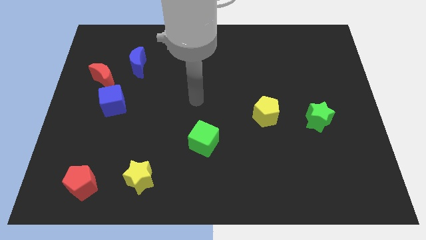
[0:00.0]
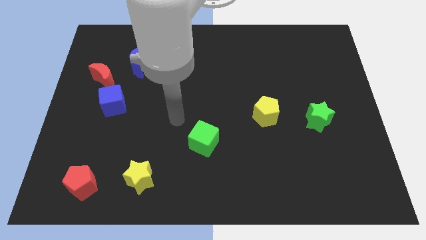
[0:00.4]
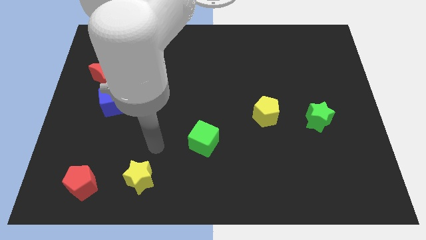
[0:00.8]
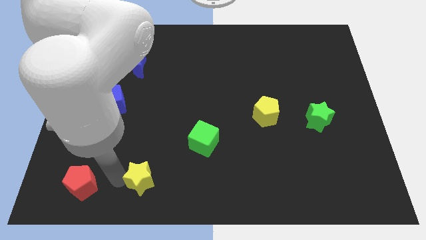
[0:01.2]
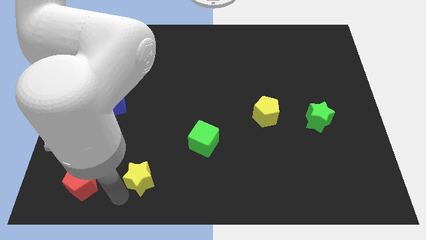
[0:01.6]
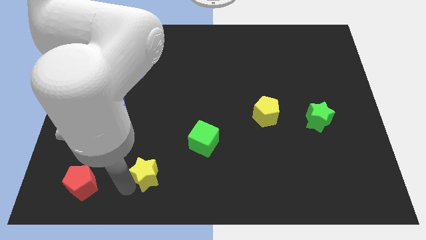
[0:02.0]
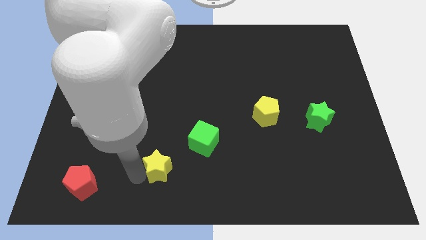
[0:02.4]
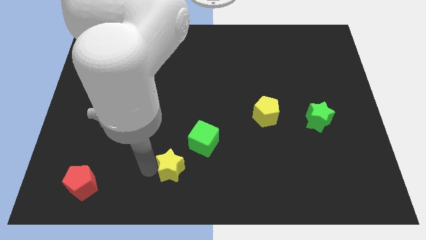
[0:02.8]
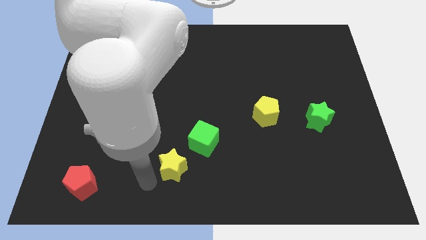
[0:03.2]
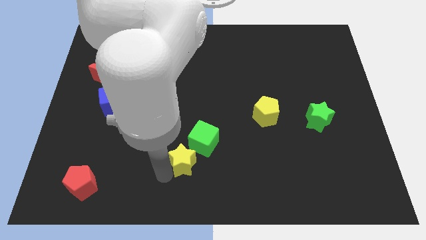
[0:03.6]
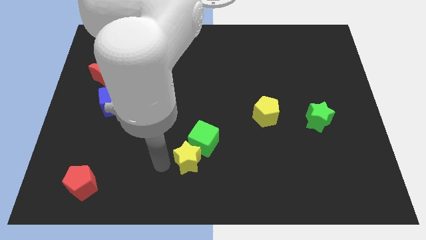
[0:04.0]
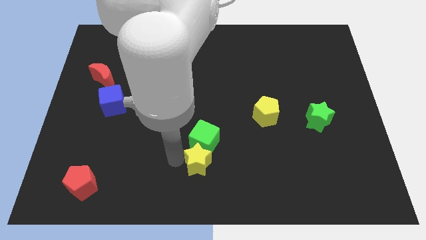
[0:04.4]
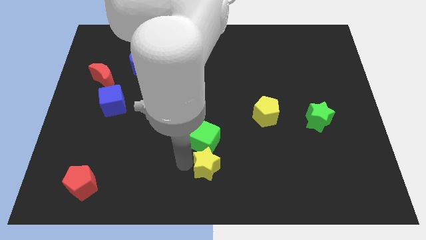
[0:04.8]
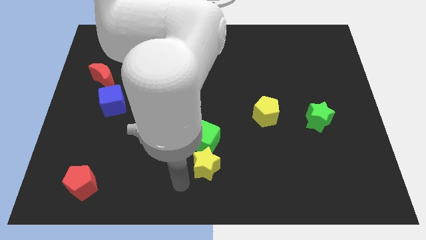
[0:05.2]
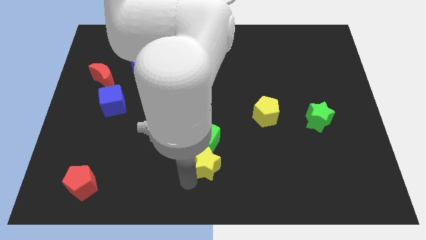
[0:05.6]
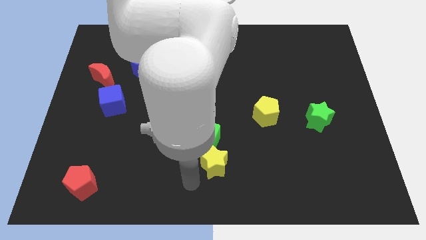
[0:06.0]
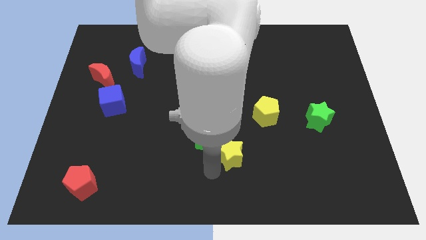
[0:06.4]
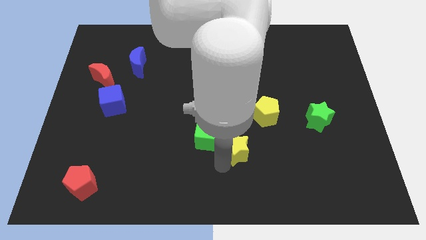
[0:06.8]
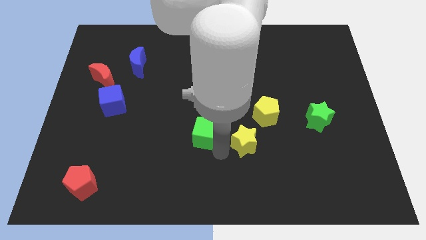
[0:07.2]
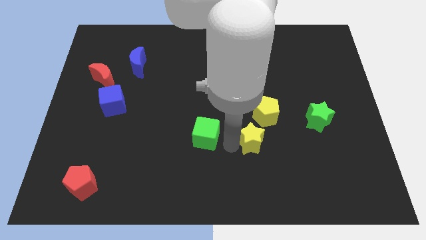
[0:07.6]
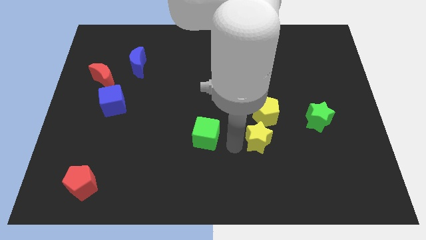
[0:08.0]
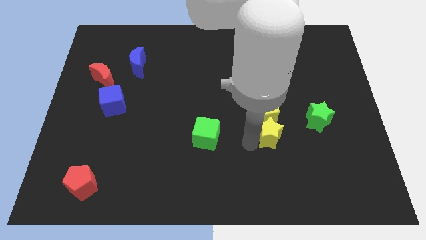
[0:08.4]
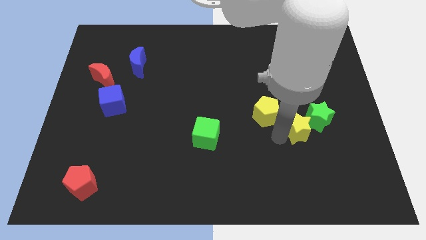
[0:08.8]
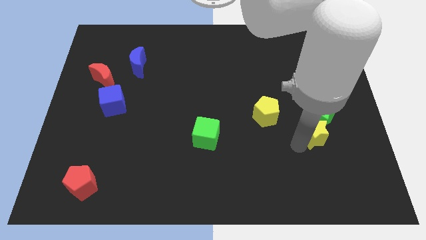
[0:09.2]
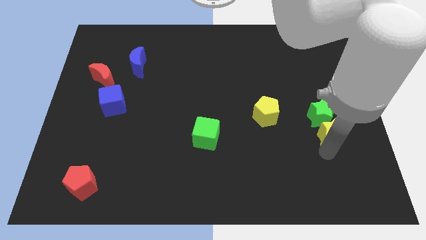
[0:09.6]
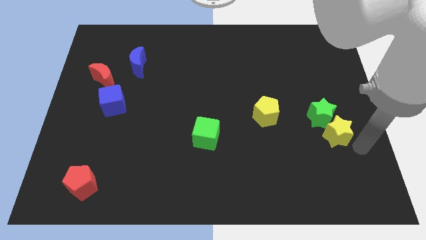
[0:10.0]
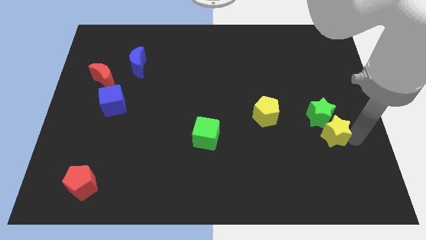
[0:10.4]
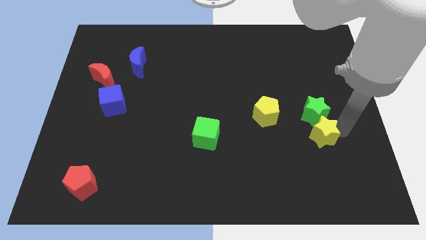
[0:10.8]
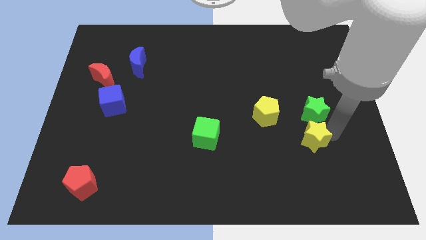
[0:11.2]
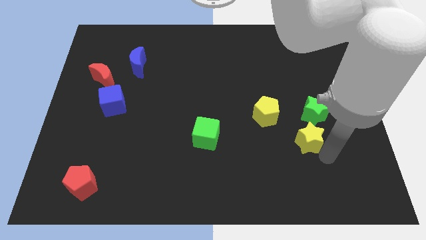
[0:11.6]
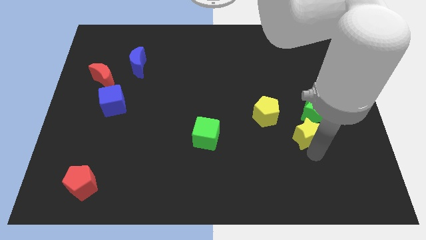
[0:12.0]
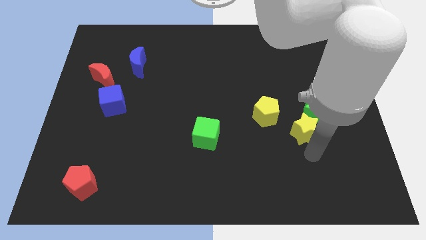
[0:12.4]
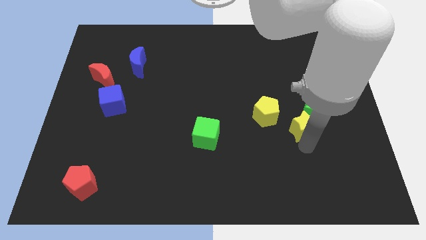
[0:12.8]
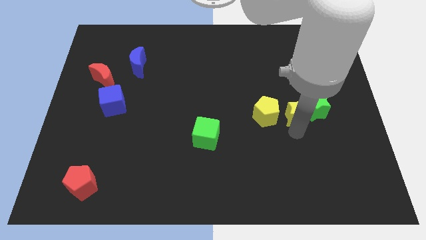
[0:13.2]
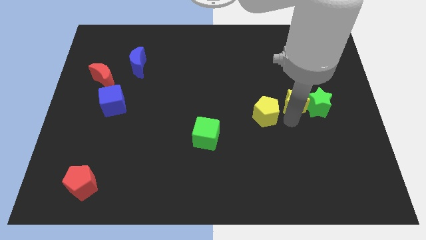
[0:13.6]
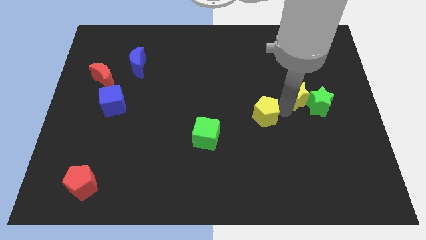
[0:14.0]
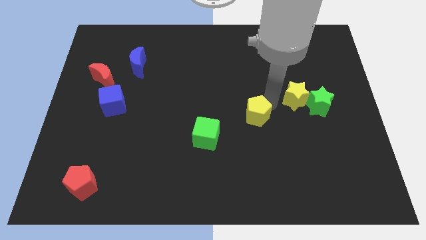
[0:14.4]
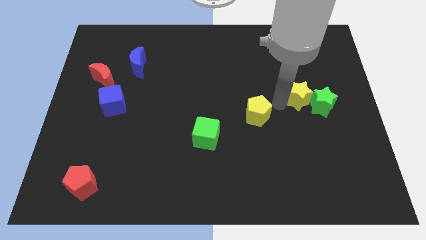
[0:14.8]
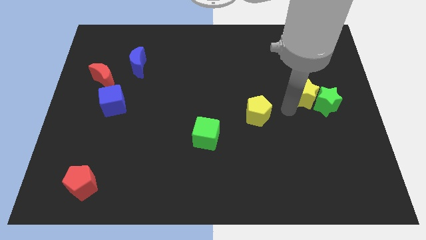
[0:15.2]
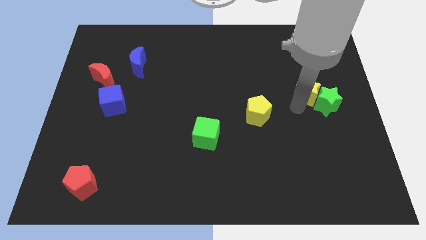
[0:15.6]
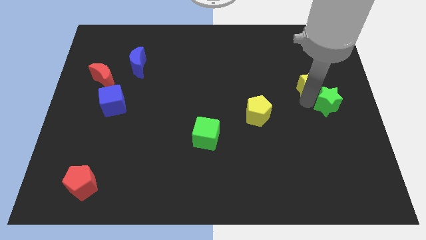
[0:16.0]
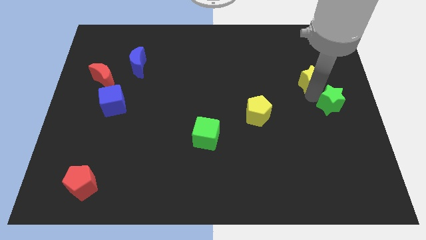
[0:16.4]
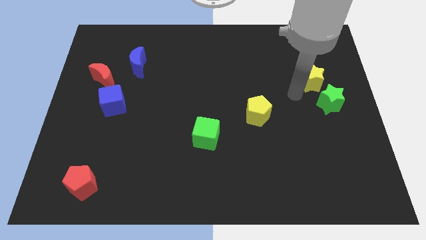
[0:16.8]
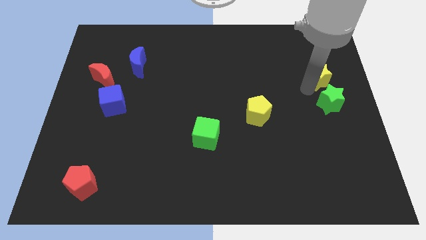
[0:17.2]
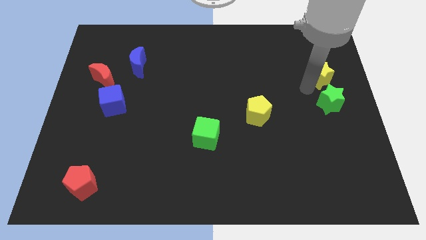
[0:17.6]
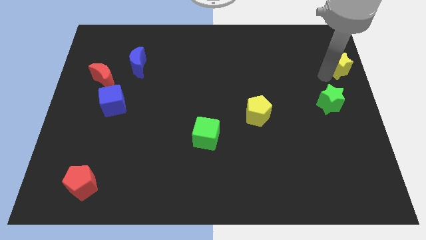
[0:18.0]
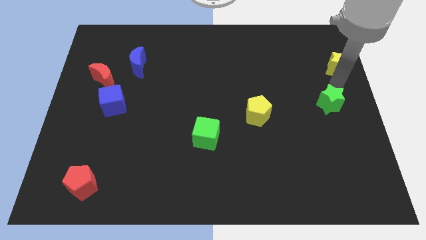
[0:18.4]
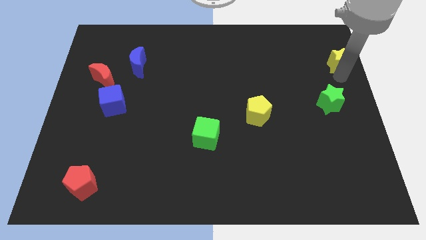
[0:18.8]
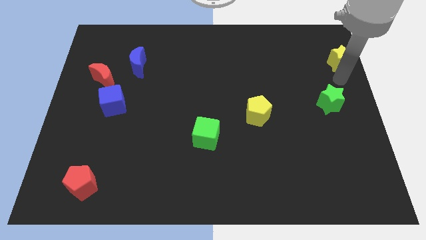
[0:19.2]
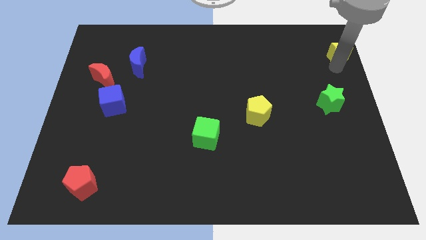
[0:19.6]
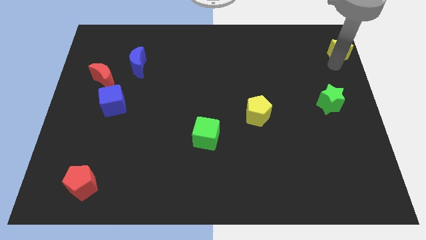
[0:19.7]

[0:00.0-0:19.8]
move the yellow star to the upper right corner
